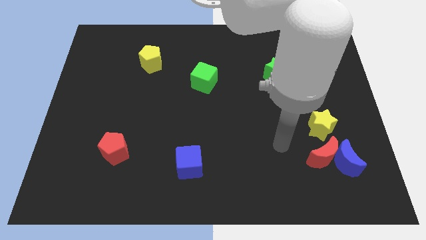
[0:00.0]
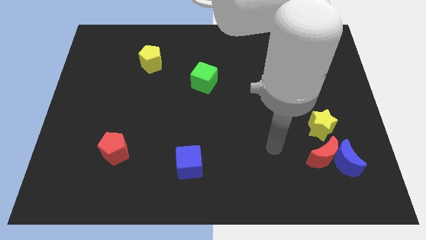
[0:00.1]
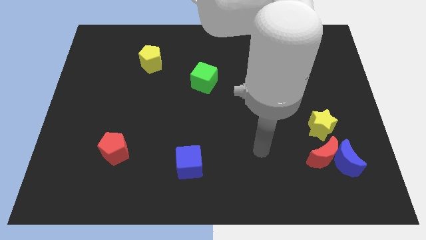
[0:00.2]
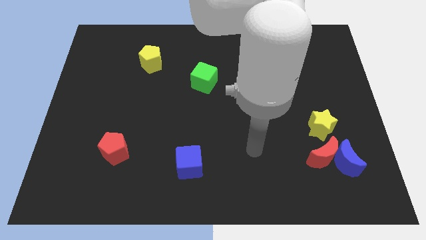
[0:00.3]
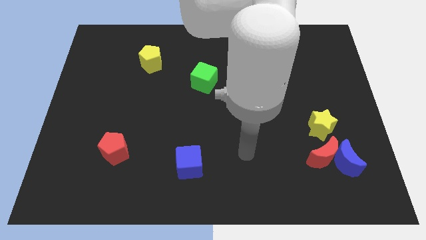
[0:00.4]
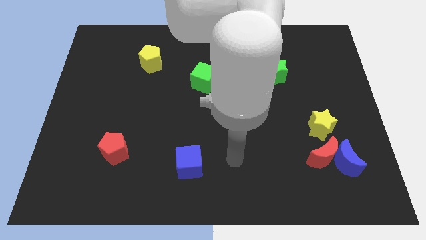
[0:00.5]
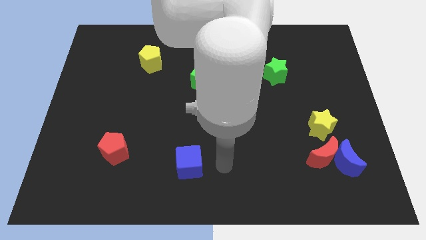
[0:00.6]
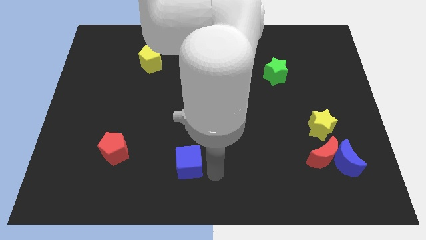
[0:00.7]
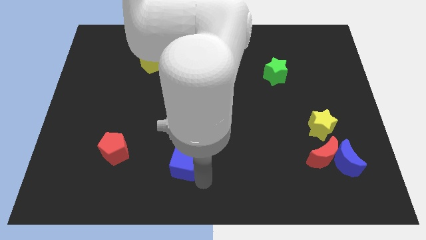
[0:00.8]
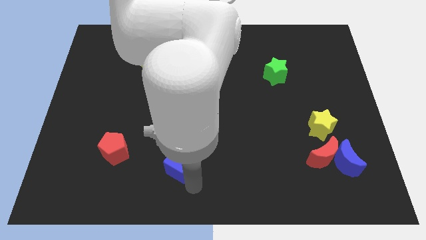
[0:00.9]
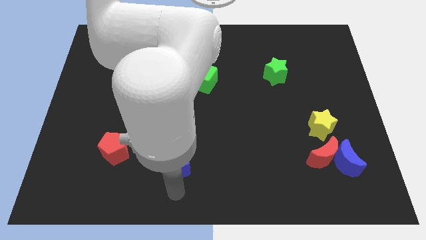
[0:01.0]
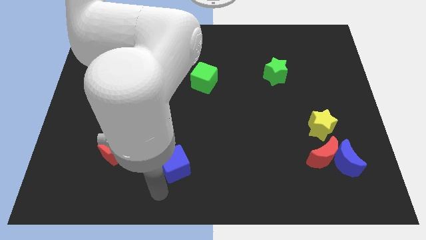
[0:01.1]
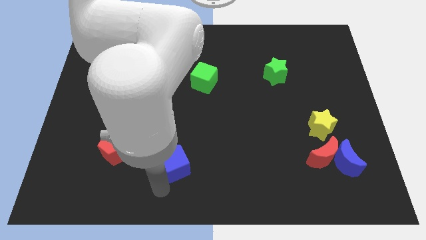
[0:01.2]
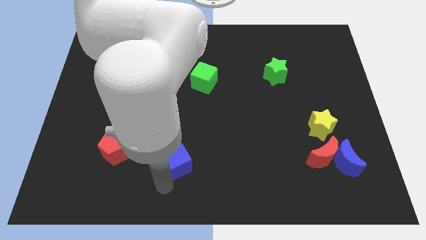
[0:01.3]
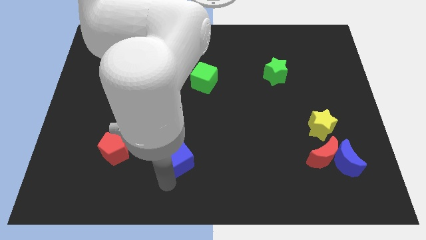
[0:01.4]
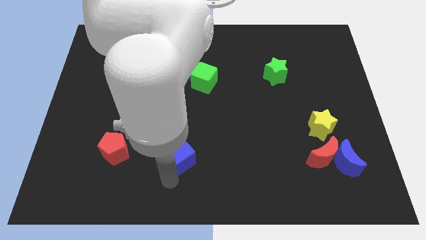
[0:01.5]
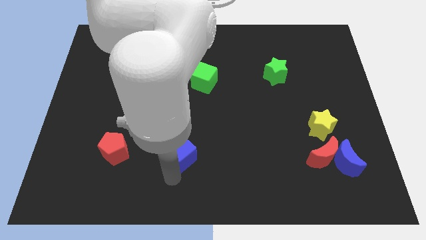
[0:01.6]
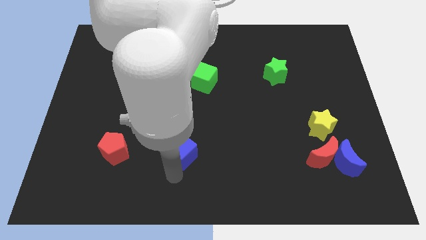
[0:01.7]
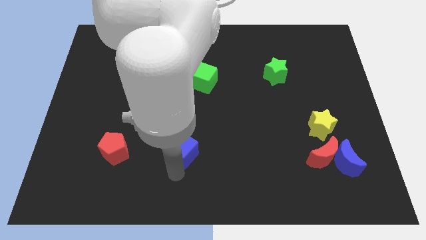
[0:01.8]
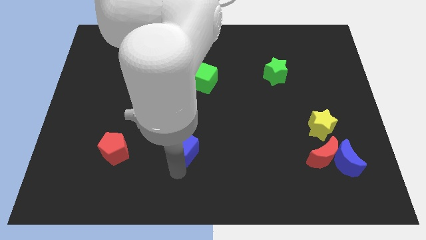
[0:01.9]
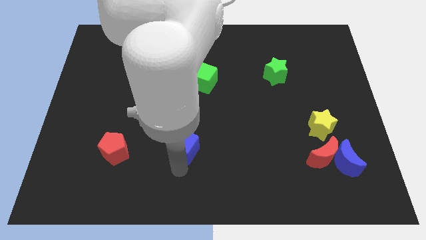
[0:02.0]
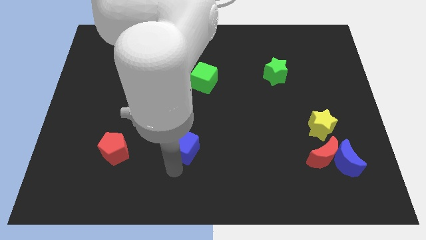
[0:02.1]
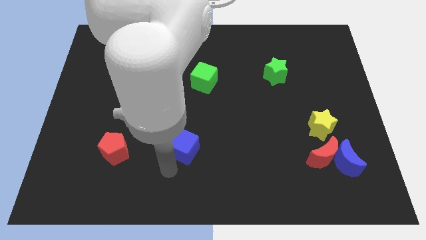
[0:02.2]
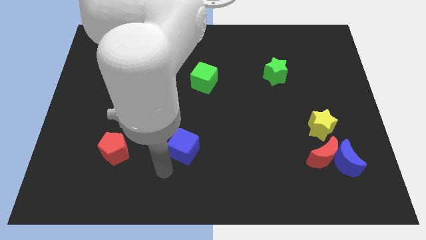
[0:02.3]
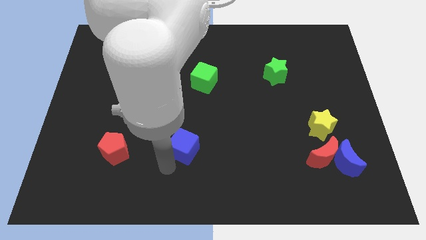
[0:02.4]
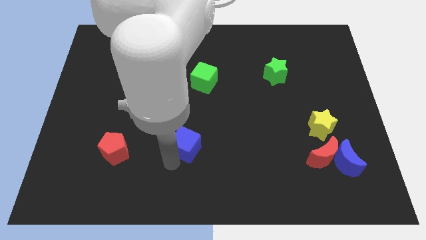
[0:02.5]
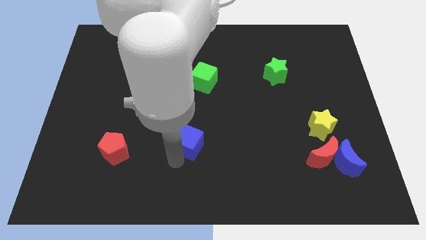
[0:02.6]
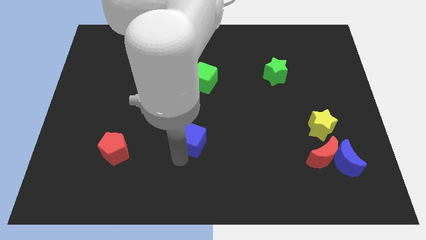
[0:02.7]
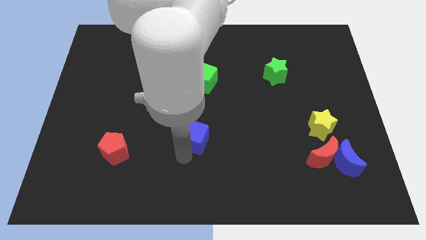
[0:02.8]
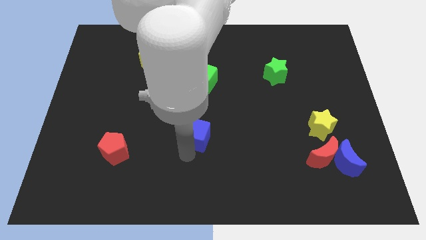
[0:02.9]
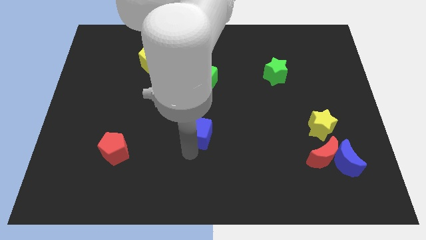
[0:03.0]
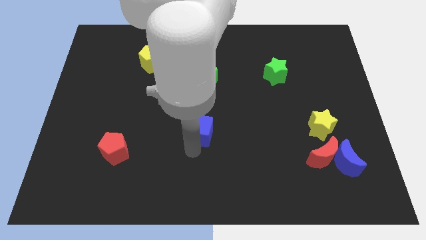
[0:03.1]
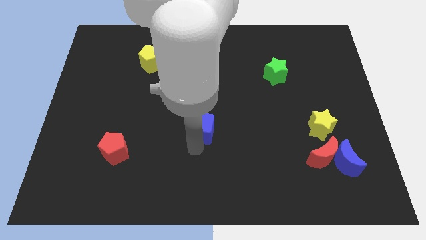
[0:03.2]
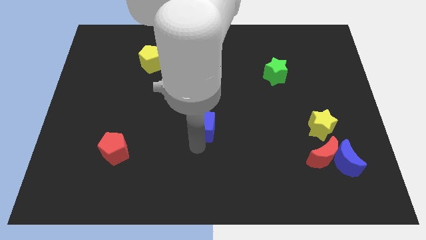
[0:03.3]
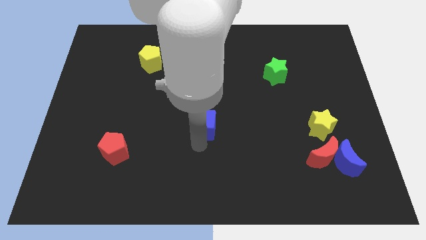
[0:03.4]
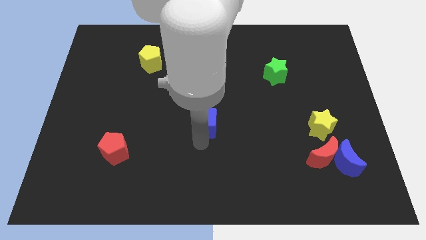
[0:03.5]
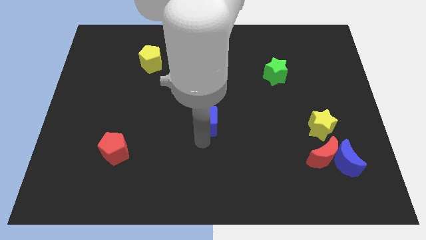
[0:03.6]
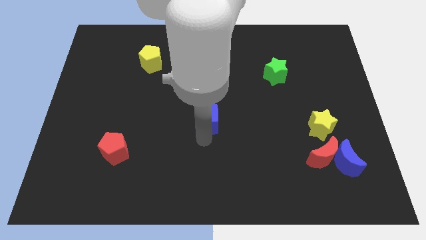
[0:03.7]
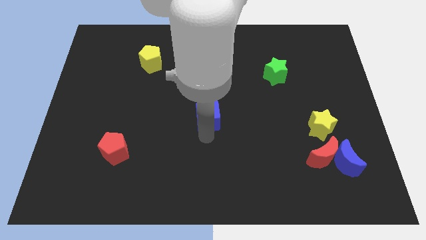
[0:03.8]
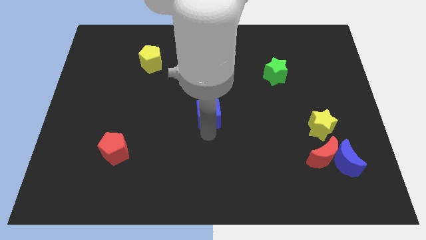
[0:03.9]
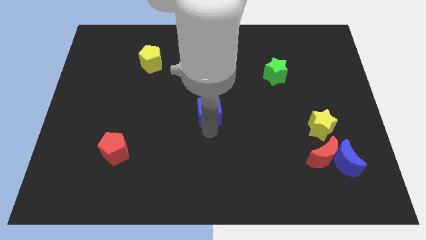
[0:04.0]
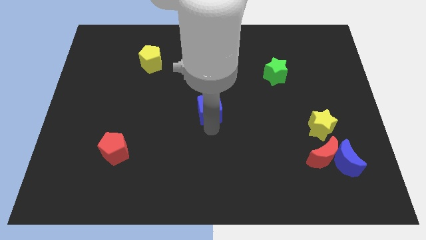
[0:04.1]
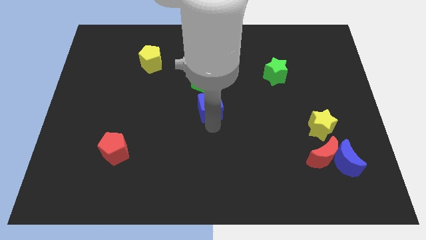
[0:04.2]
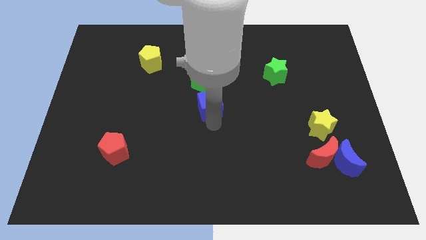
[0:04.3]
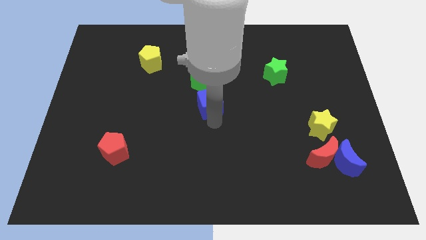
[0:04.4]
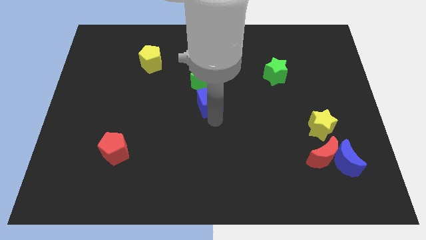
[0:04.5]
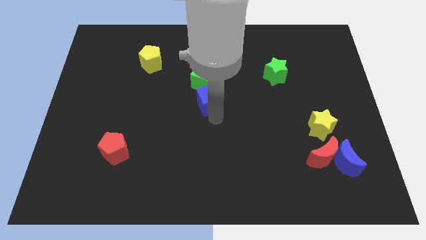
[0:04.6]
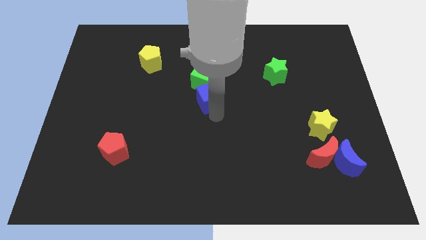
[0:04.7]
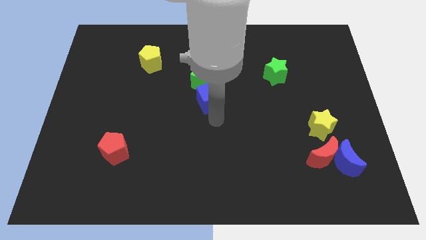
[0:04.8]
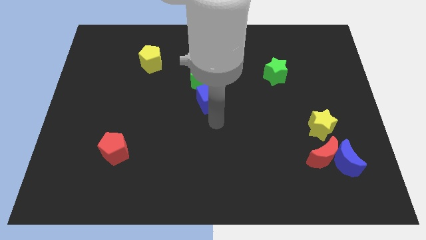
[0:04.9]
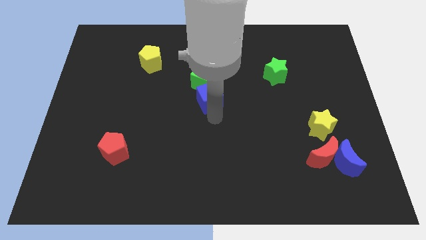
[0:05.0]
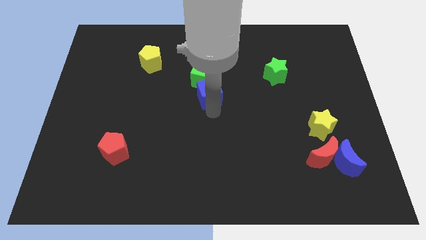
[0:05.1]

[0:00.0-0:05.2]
push the blue cube close to the green cube

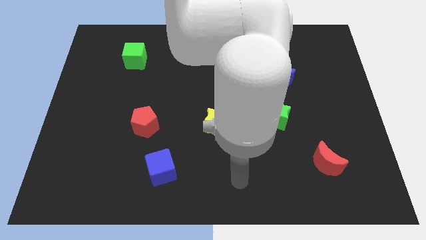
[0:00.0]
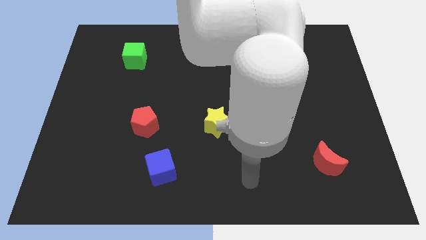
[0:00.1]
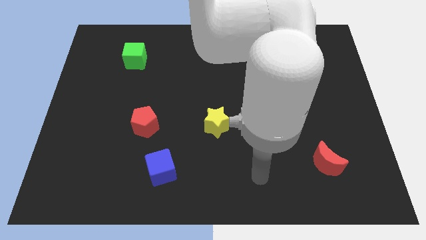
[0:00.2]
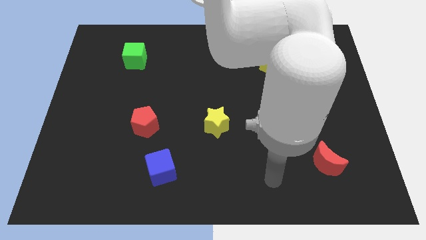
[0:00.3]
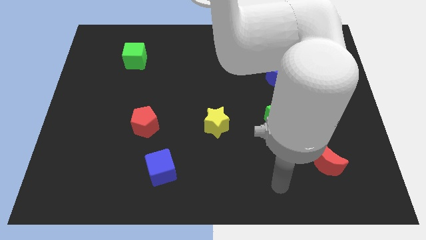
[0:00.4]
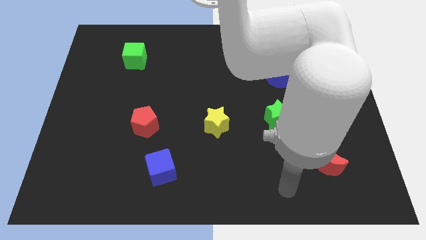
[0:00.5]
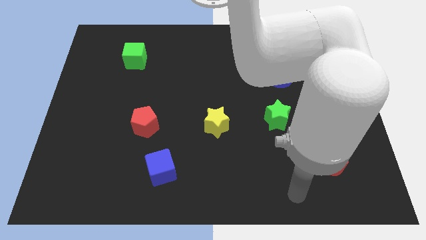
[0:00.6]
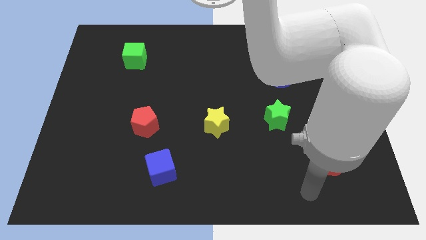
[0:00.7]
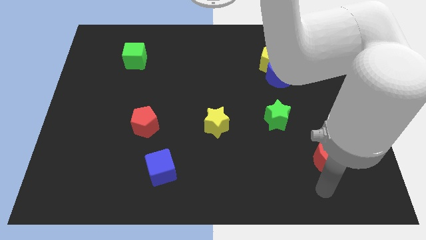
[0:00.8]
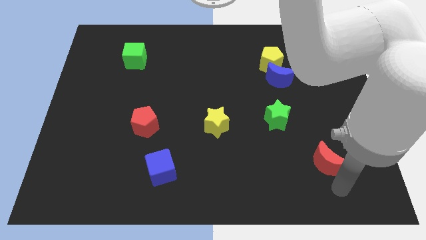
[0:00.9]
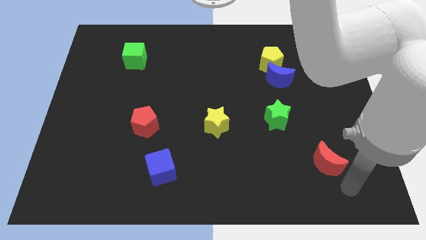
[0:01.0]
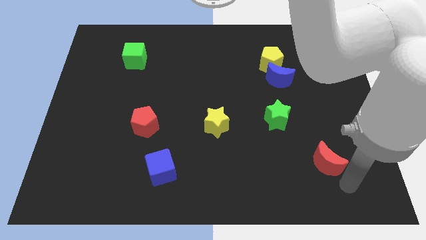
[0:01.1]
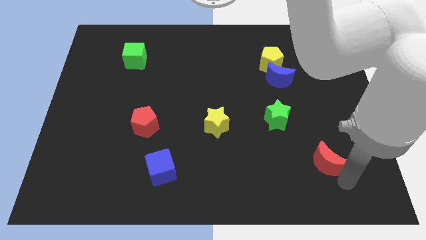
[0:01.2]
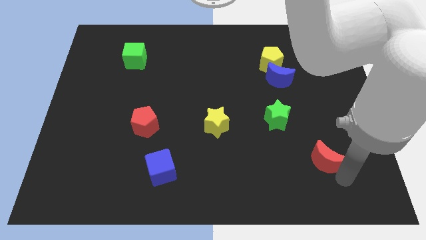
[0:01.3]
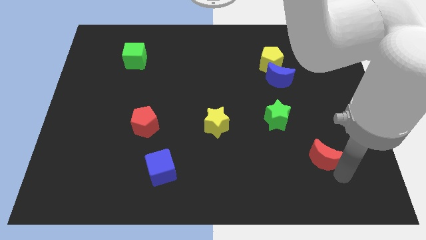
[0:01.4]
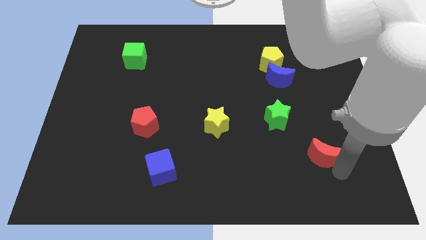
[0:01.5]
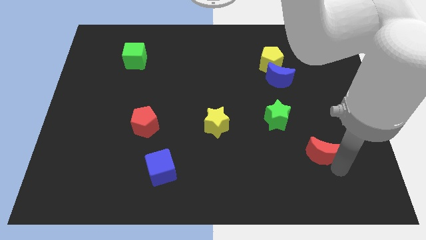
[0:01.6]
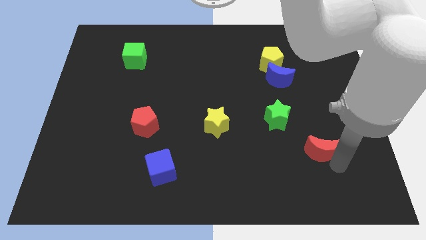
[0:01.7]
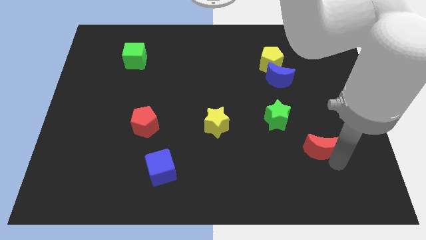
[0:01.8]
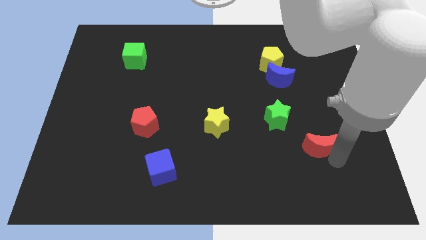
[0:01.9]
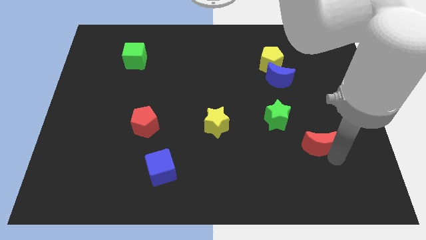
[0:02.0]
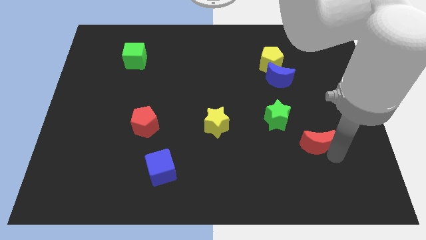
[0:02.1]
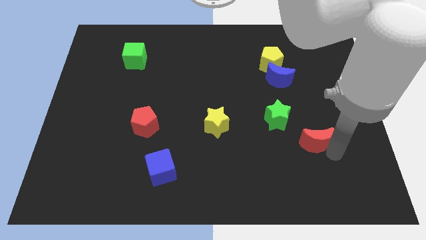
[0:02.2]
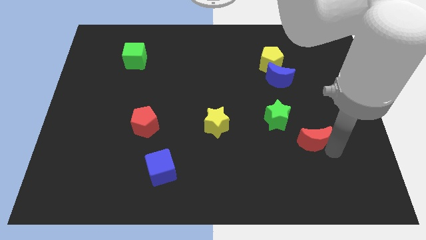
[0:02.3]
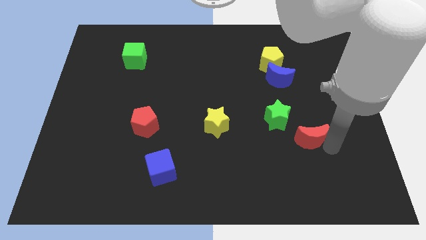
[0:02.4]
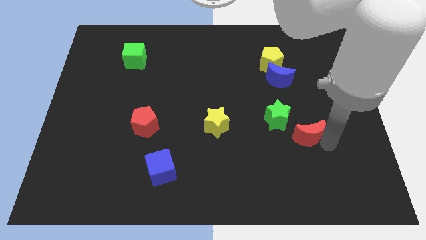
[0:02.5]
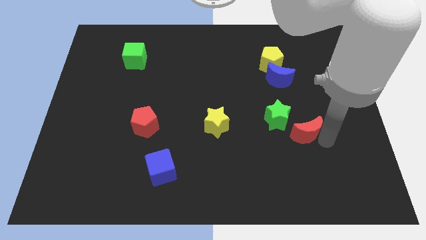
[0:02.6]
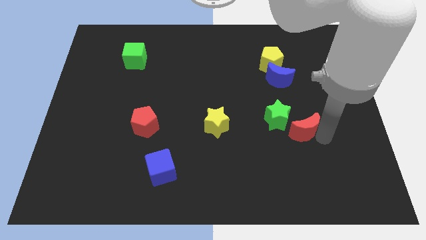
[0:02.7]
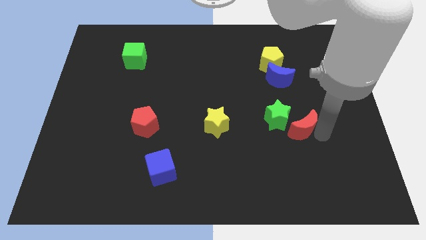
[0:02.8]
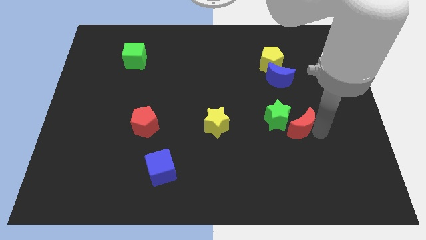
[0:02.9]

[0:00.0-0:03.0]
put the red moon next to the green star
